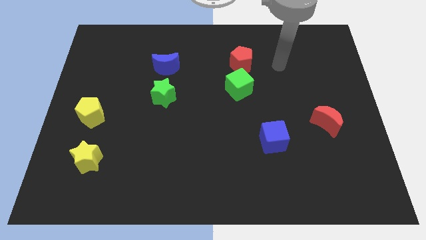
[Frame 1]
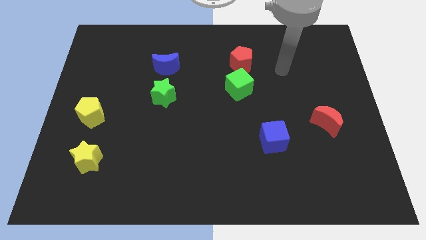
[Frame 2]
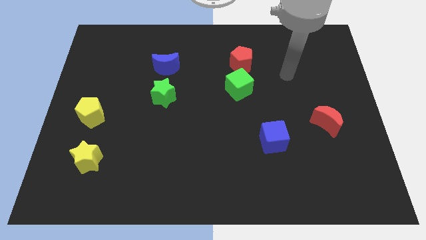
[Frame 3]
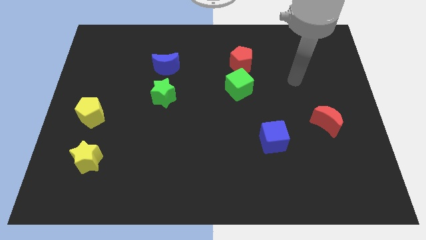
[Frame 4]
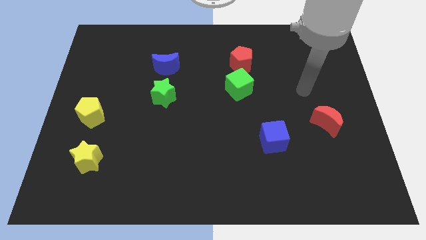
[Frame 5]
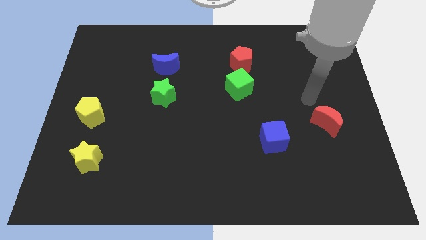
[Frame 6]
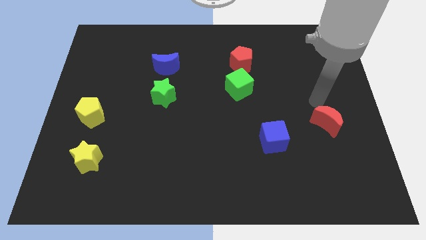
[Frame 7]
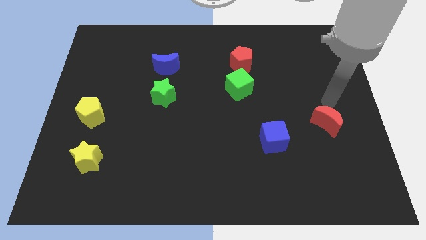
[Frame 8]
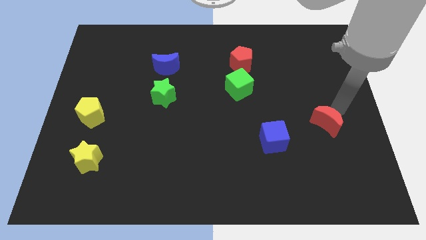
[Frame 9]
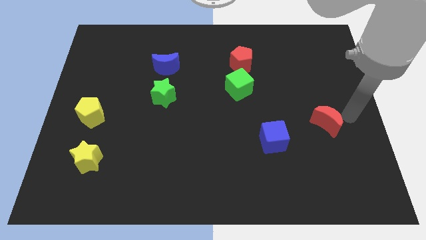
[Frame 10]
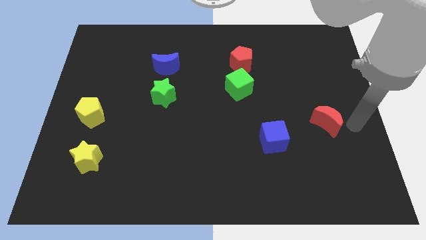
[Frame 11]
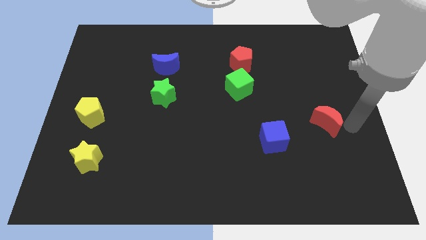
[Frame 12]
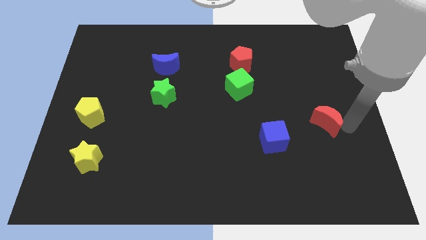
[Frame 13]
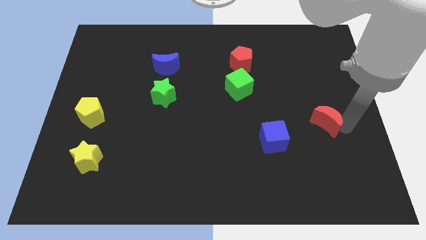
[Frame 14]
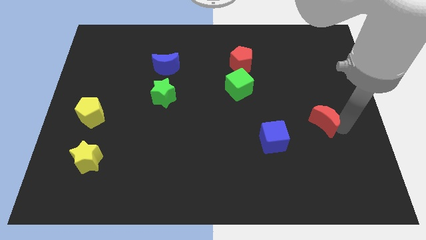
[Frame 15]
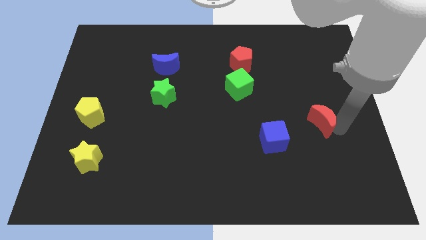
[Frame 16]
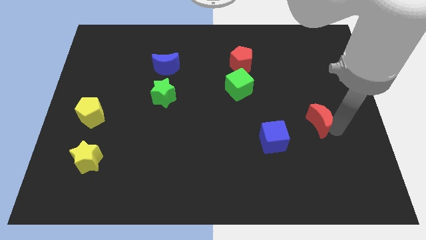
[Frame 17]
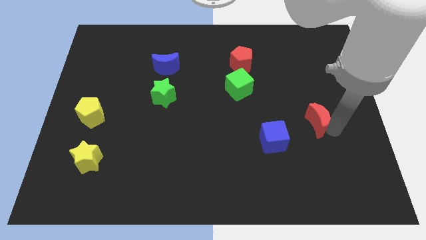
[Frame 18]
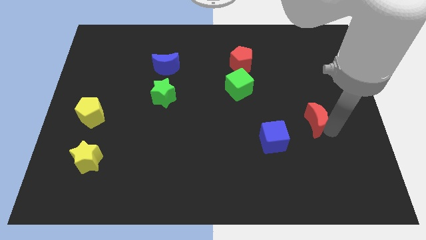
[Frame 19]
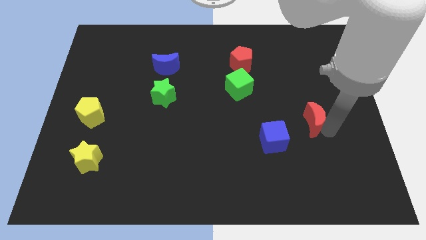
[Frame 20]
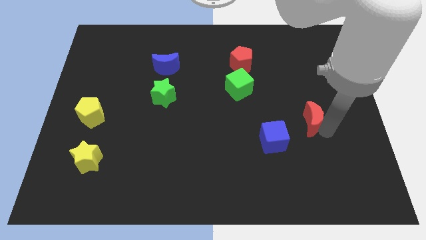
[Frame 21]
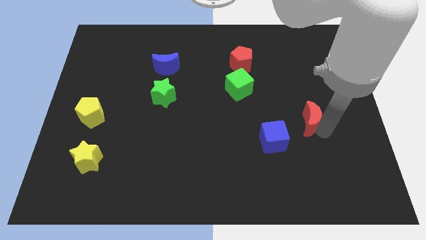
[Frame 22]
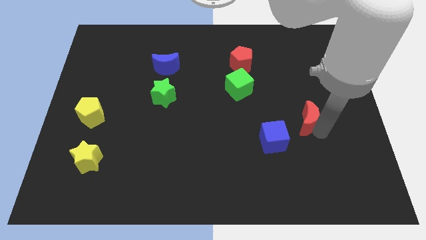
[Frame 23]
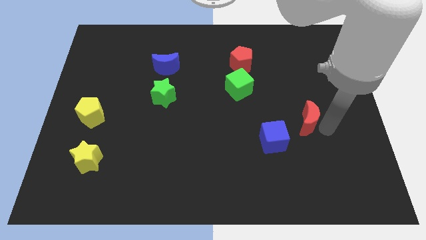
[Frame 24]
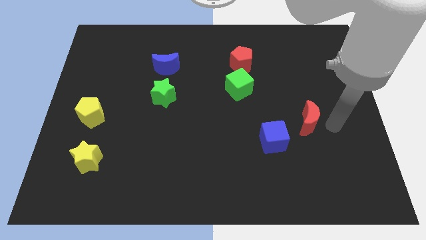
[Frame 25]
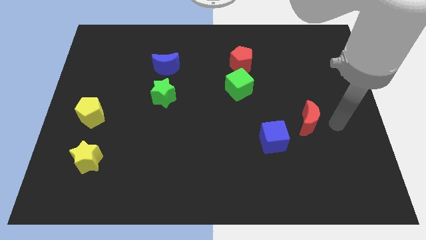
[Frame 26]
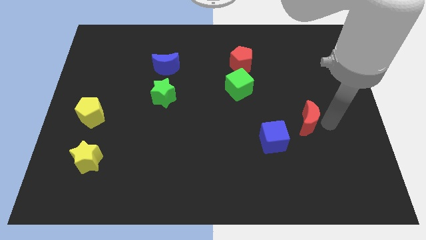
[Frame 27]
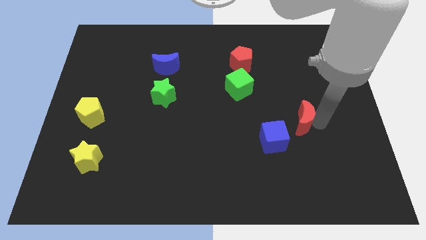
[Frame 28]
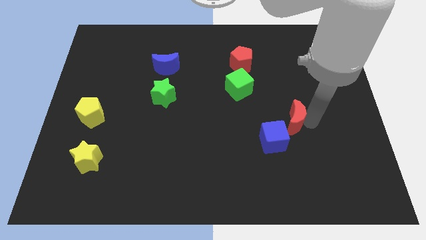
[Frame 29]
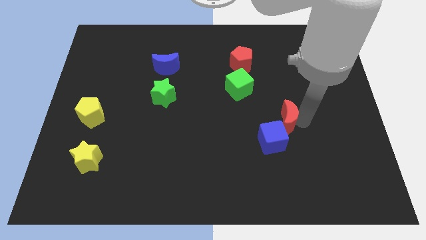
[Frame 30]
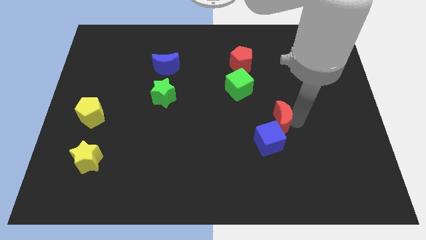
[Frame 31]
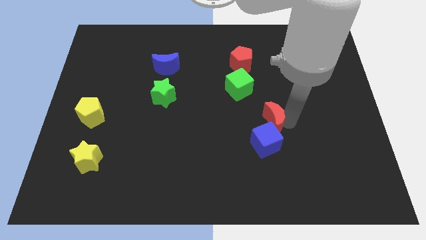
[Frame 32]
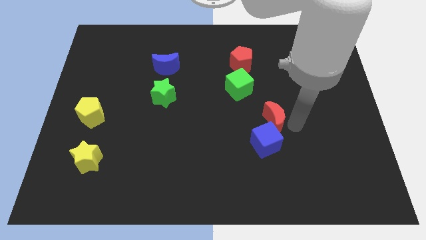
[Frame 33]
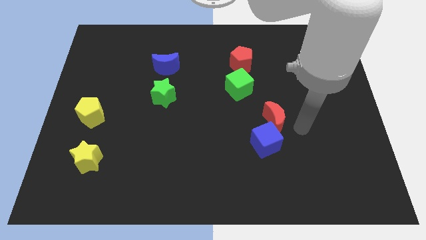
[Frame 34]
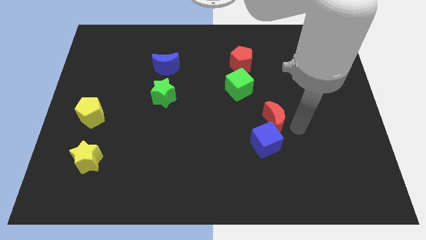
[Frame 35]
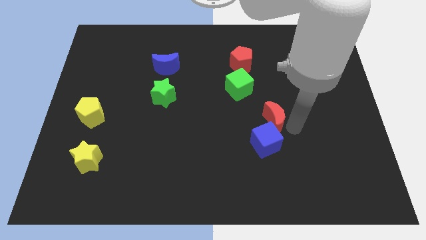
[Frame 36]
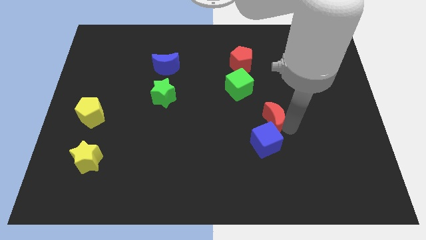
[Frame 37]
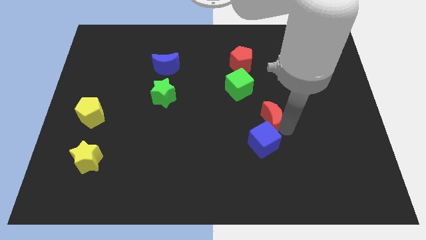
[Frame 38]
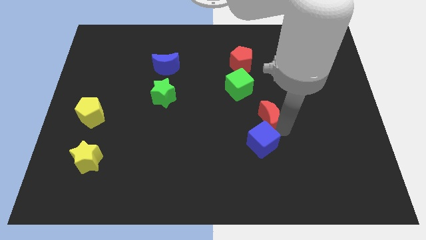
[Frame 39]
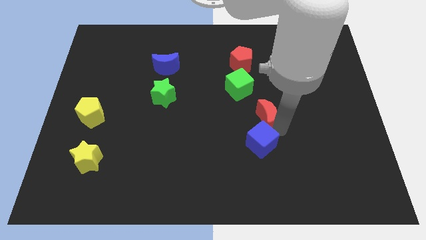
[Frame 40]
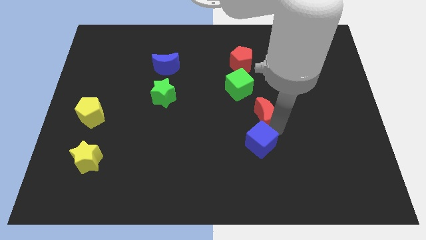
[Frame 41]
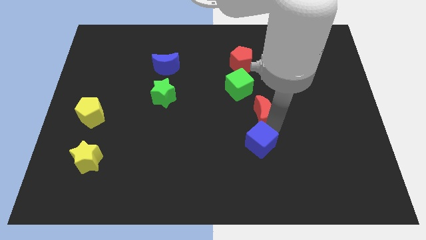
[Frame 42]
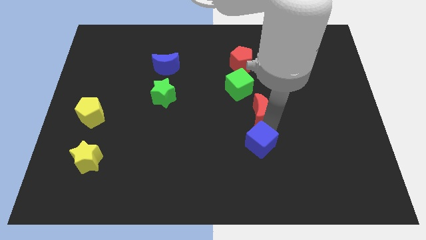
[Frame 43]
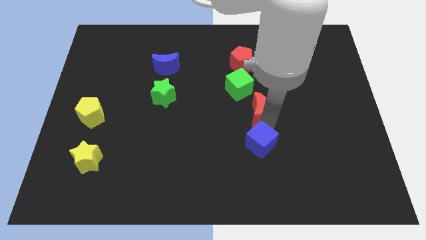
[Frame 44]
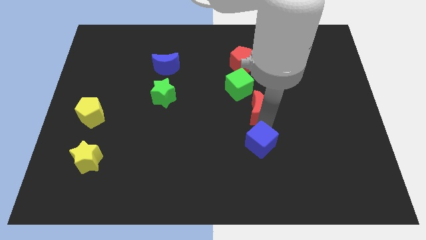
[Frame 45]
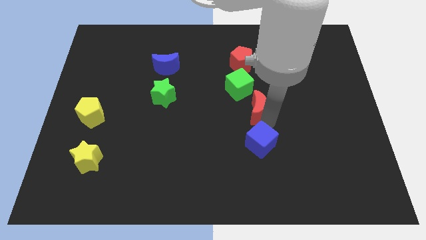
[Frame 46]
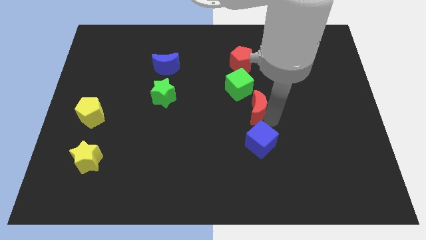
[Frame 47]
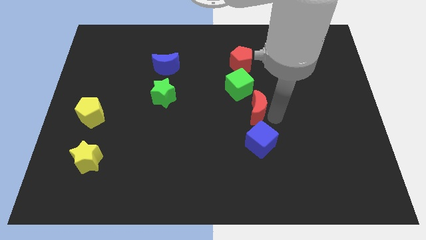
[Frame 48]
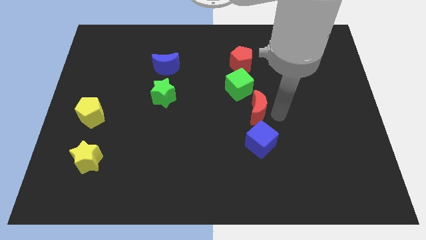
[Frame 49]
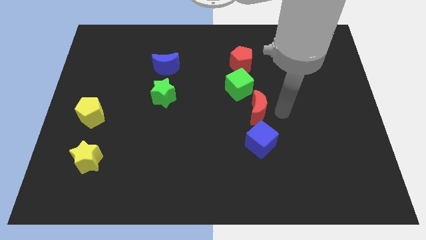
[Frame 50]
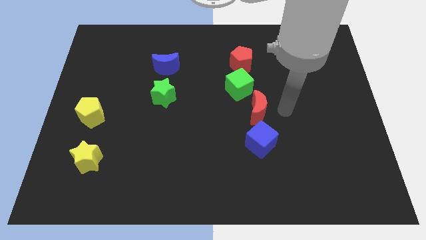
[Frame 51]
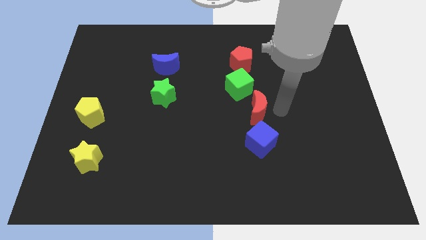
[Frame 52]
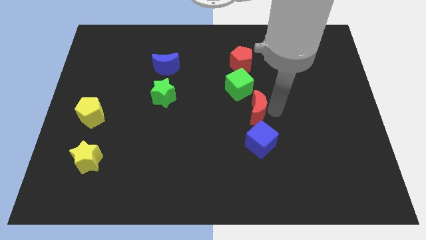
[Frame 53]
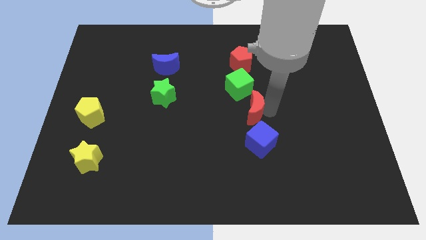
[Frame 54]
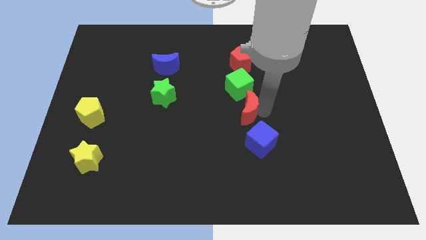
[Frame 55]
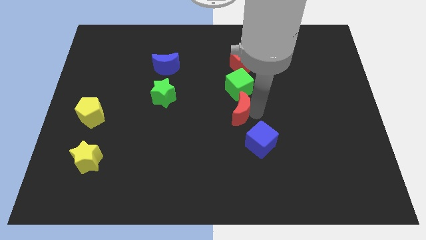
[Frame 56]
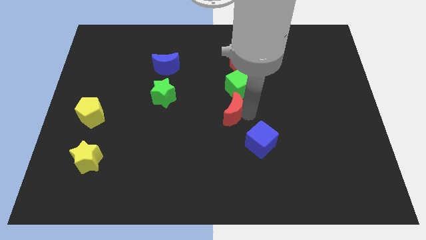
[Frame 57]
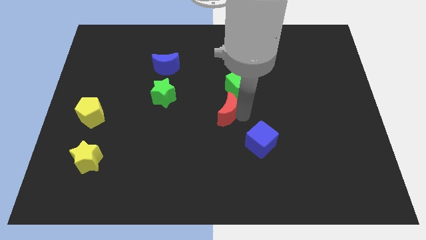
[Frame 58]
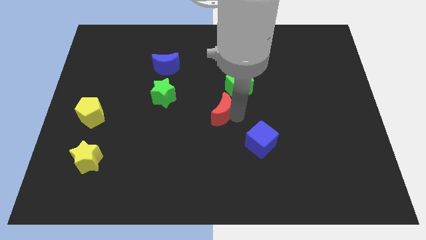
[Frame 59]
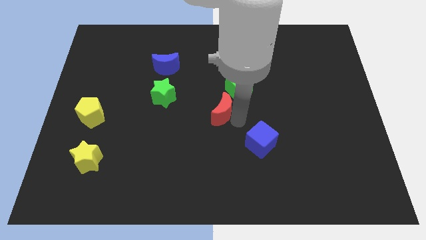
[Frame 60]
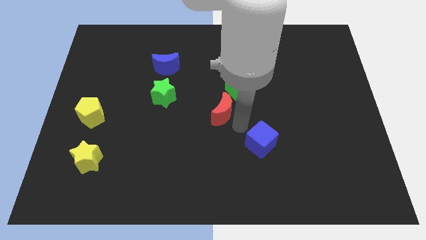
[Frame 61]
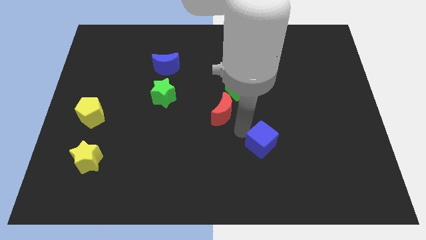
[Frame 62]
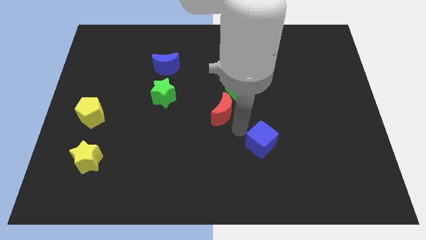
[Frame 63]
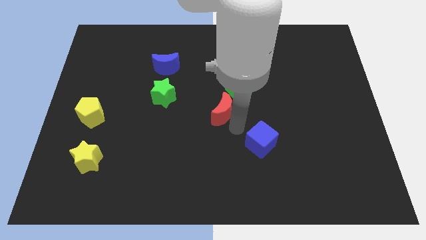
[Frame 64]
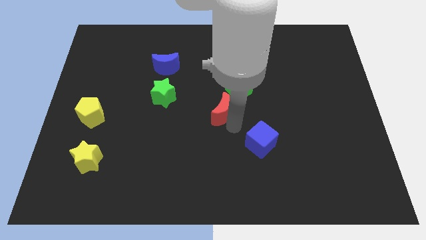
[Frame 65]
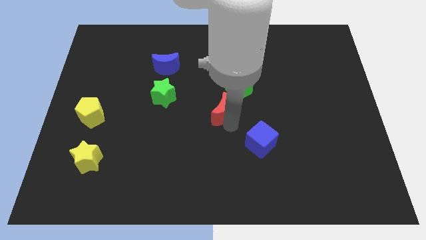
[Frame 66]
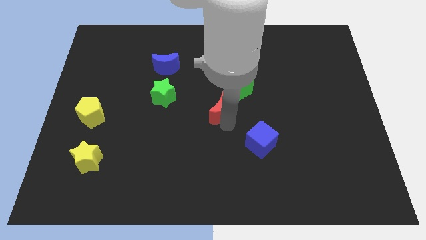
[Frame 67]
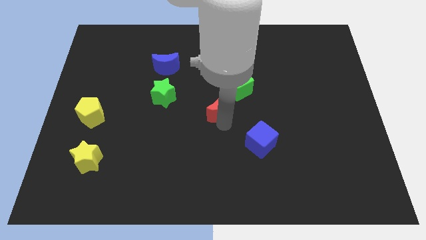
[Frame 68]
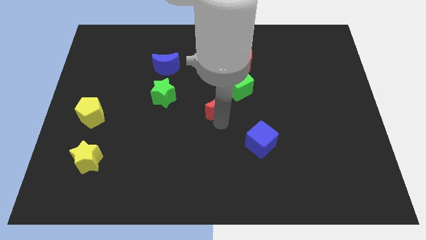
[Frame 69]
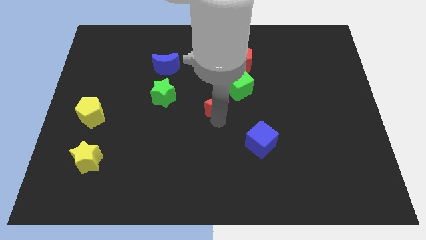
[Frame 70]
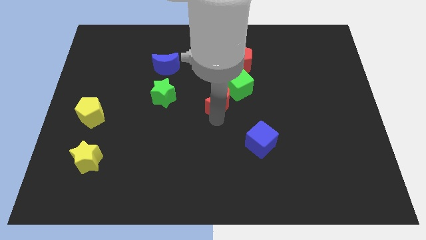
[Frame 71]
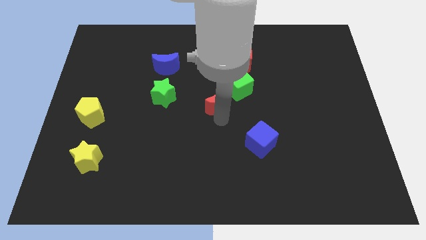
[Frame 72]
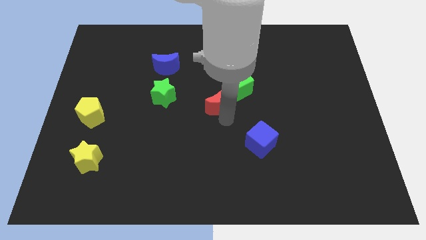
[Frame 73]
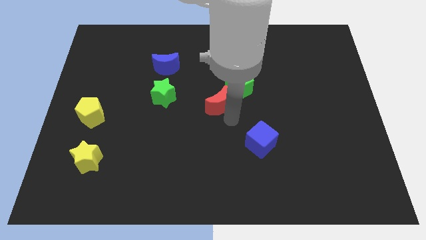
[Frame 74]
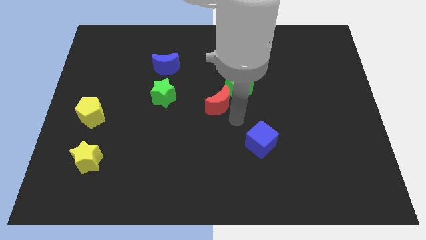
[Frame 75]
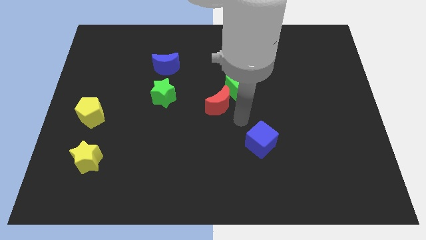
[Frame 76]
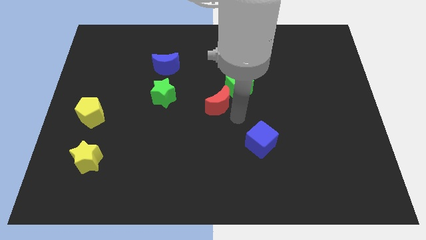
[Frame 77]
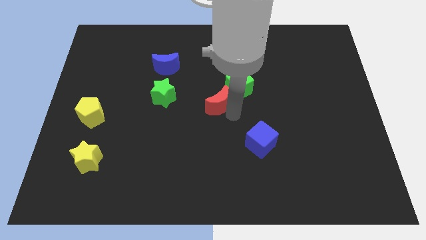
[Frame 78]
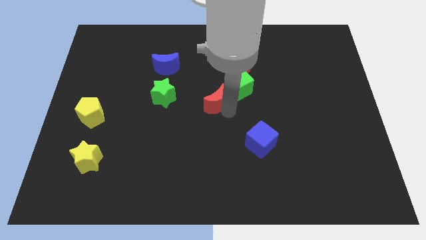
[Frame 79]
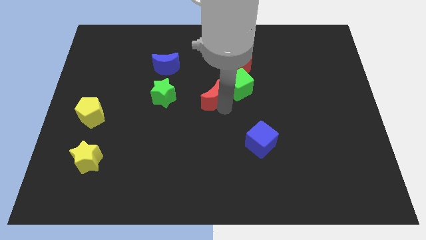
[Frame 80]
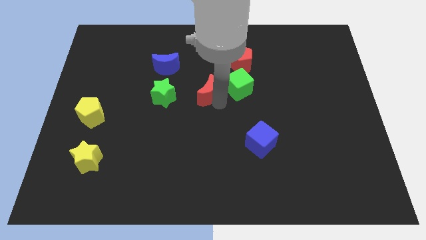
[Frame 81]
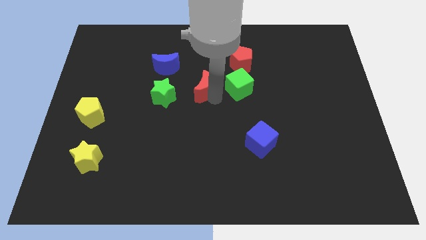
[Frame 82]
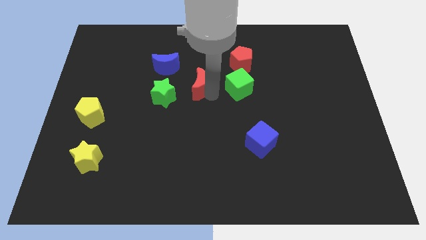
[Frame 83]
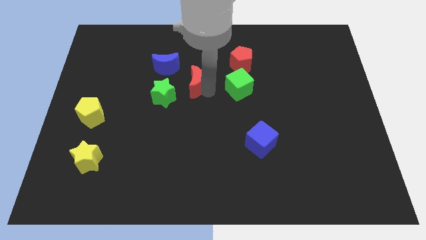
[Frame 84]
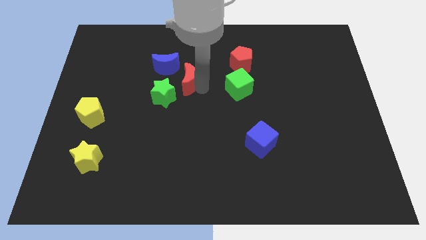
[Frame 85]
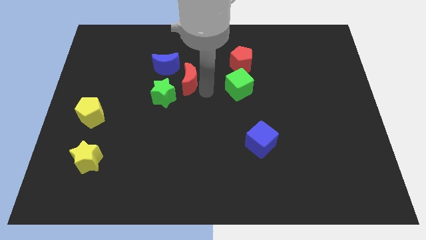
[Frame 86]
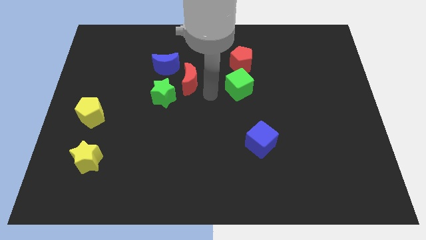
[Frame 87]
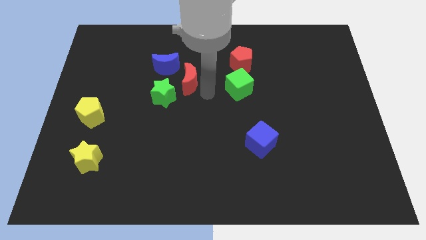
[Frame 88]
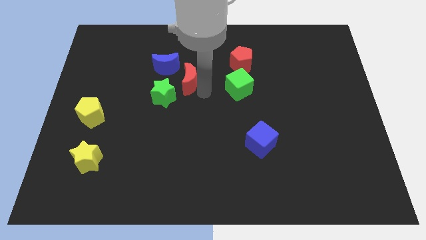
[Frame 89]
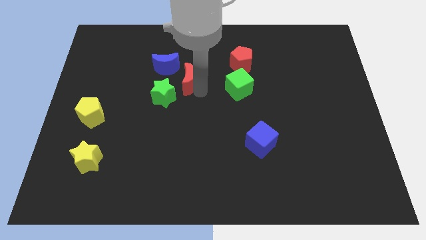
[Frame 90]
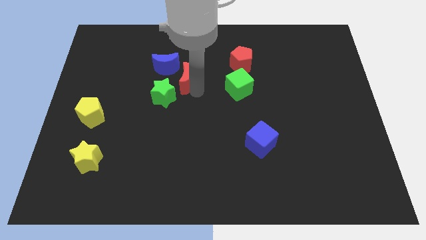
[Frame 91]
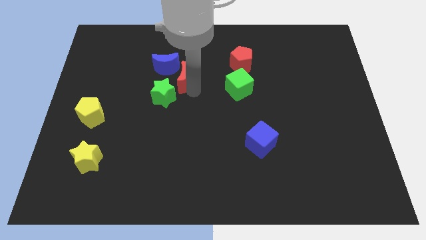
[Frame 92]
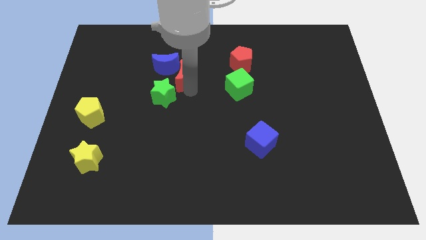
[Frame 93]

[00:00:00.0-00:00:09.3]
slide the red moon close to the blue moon
